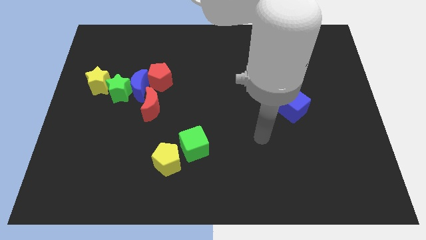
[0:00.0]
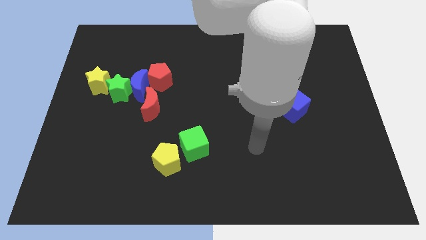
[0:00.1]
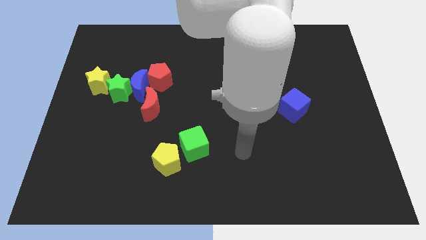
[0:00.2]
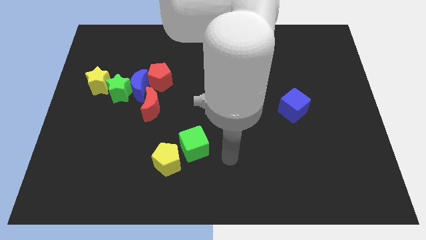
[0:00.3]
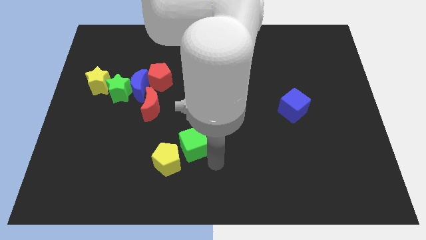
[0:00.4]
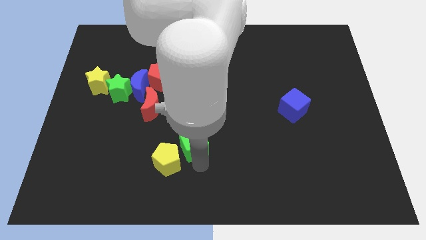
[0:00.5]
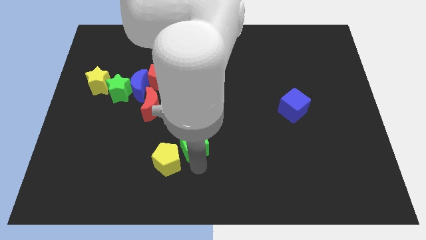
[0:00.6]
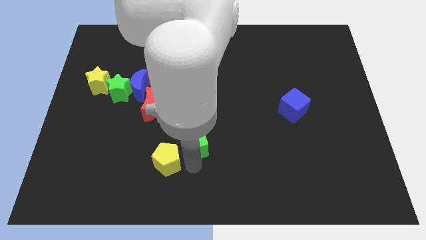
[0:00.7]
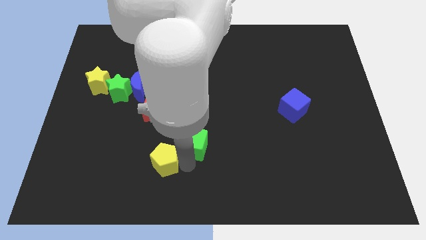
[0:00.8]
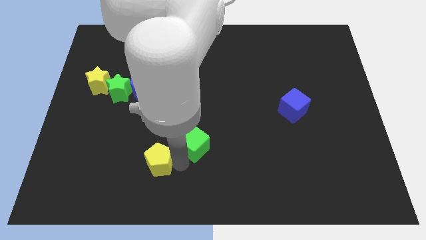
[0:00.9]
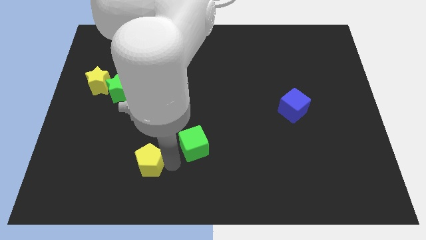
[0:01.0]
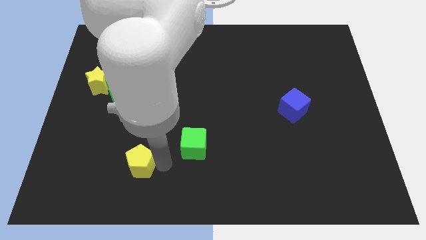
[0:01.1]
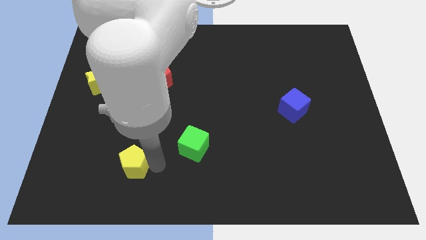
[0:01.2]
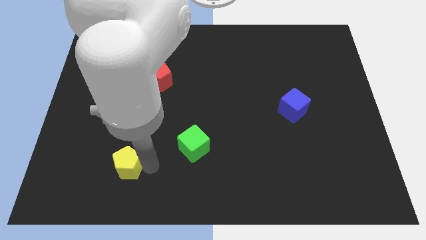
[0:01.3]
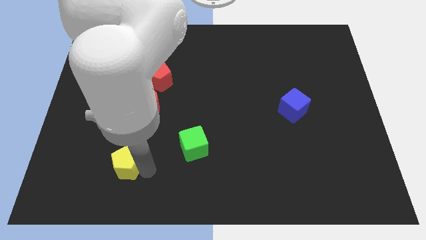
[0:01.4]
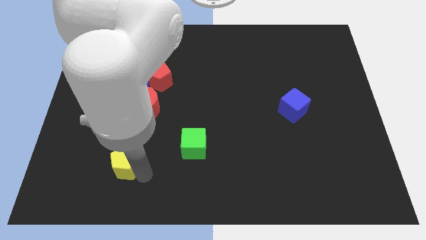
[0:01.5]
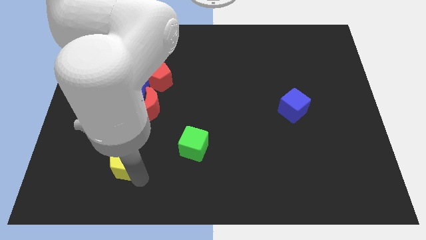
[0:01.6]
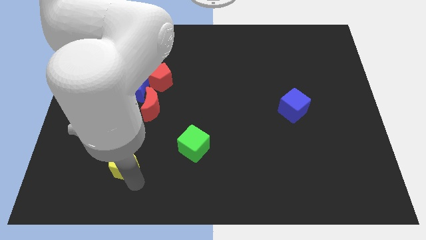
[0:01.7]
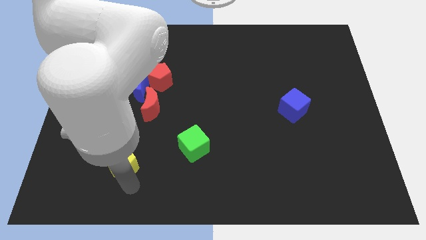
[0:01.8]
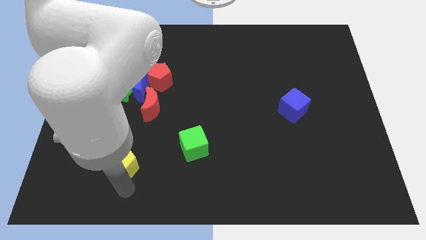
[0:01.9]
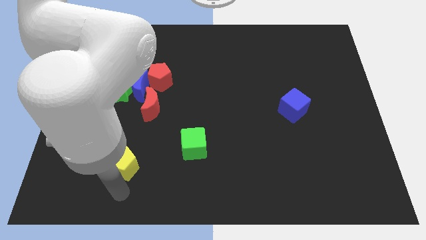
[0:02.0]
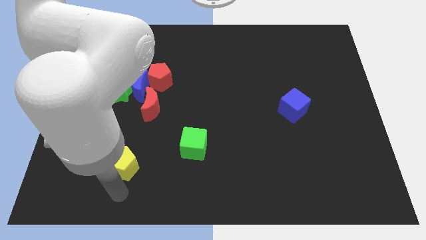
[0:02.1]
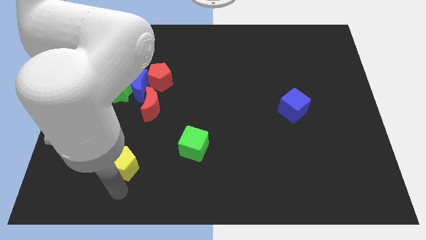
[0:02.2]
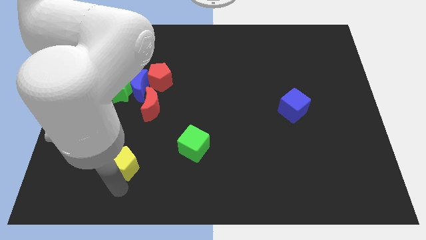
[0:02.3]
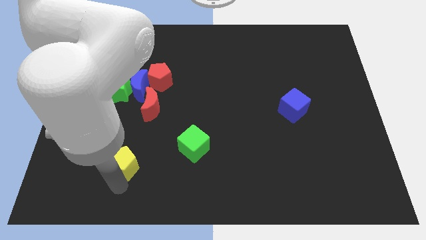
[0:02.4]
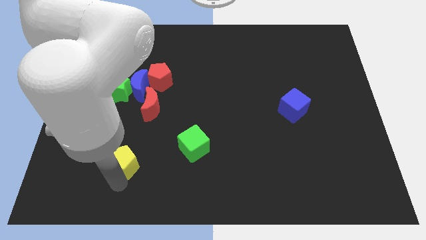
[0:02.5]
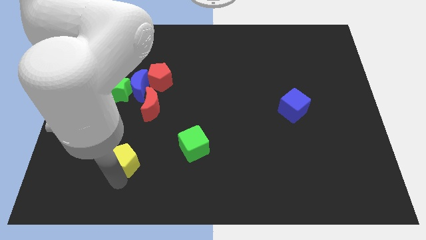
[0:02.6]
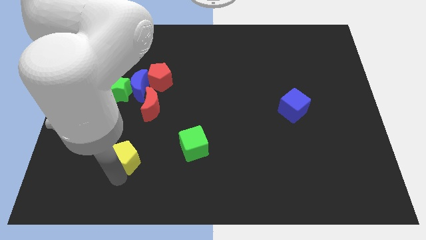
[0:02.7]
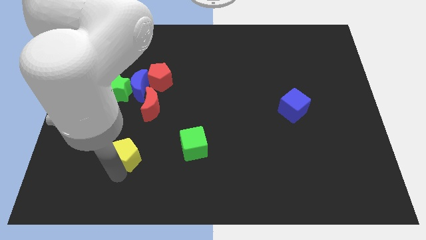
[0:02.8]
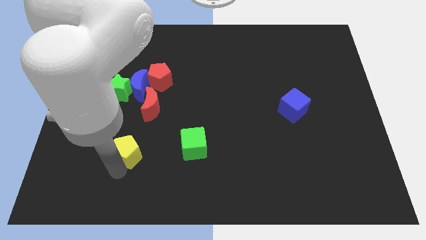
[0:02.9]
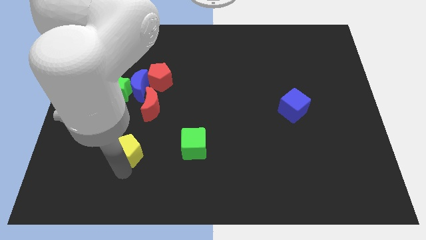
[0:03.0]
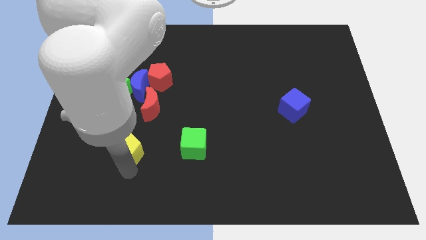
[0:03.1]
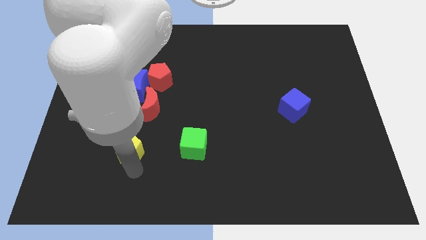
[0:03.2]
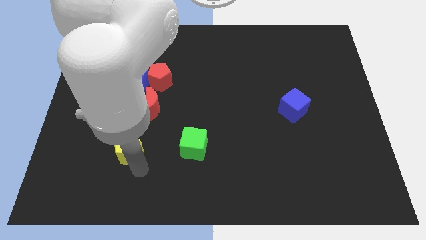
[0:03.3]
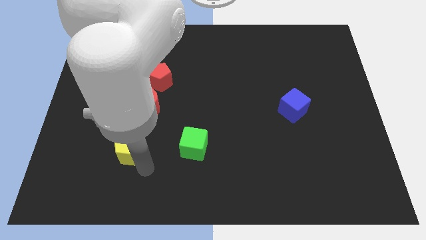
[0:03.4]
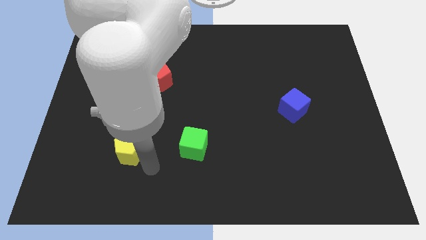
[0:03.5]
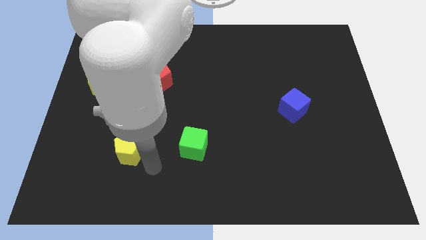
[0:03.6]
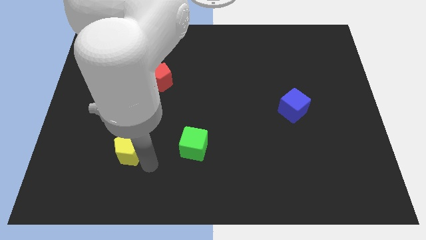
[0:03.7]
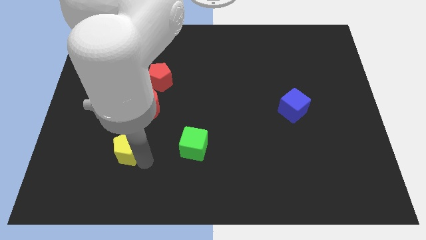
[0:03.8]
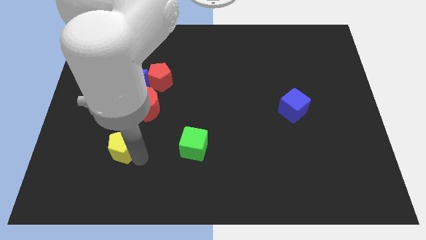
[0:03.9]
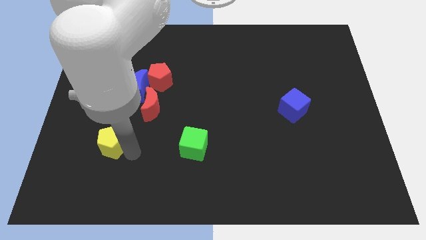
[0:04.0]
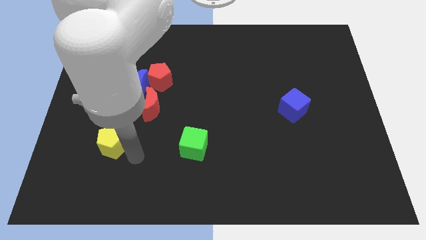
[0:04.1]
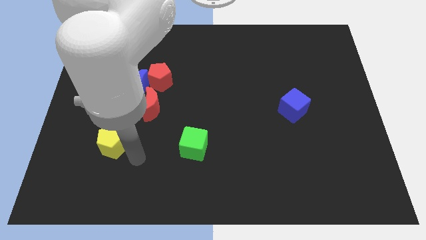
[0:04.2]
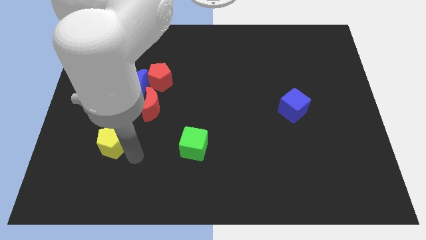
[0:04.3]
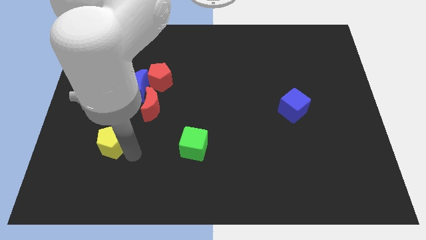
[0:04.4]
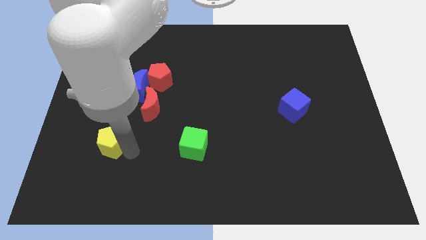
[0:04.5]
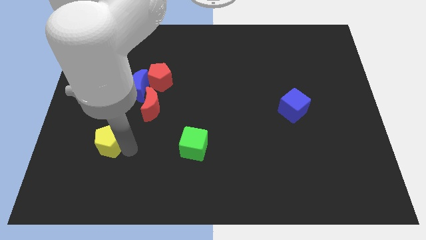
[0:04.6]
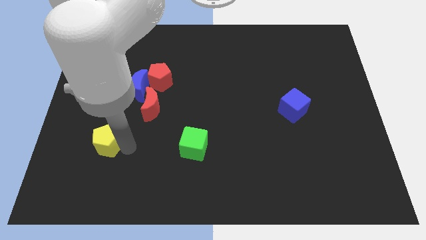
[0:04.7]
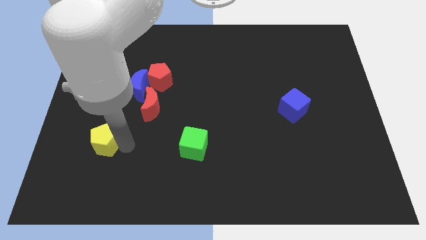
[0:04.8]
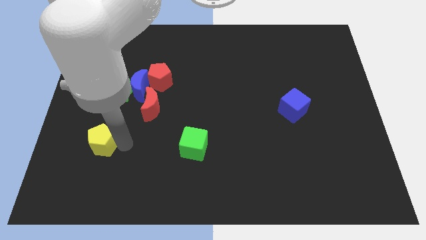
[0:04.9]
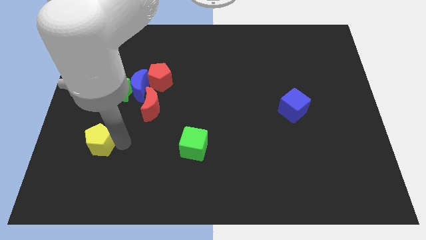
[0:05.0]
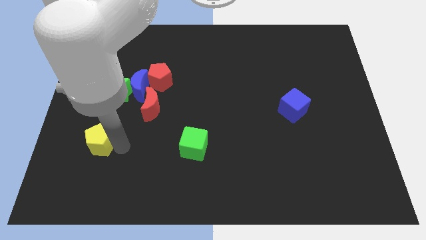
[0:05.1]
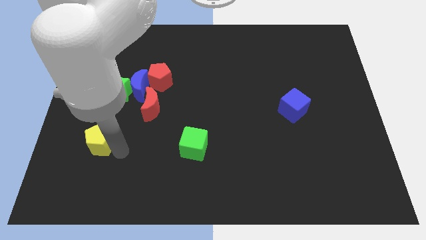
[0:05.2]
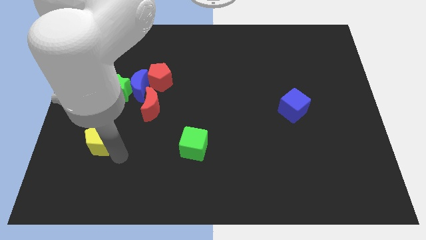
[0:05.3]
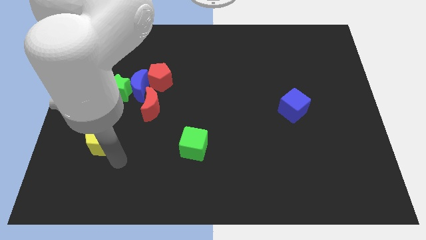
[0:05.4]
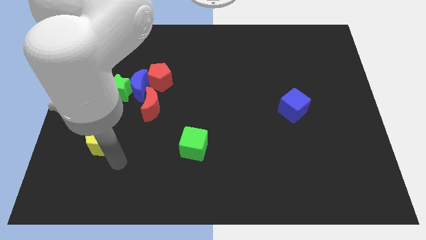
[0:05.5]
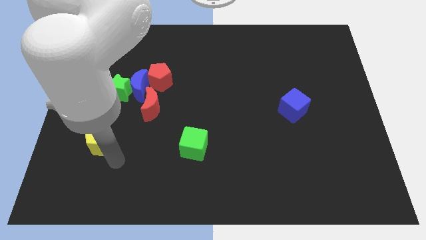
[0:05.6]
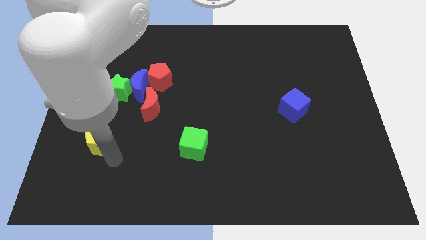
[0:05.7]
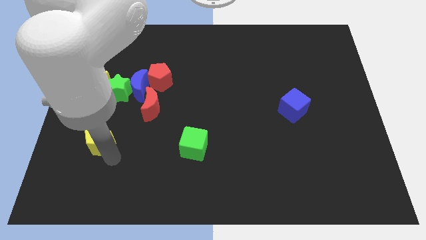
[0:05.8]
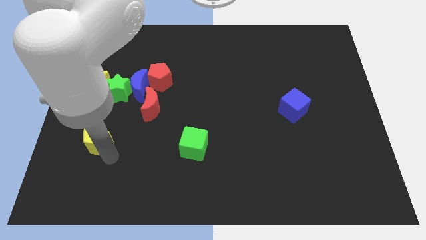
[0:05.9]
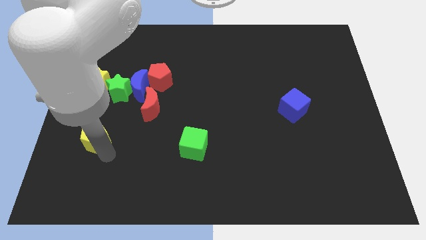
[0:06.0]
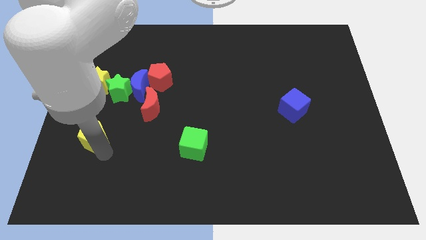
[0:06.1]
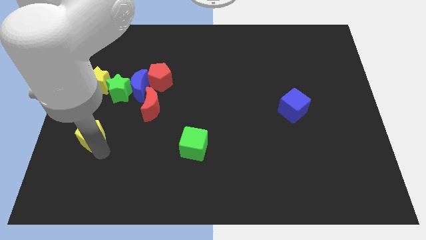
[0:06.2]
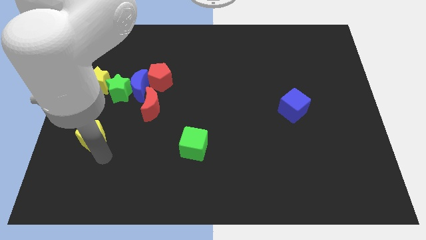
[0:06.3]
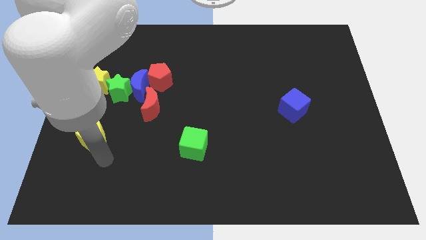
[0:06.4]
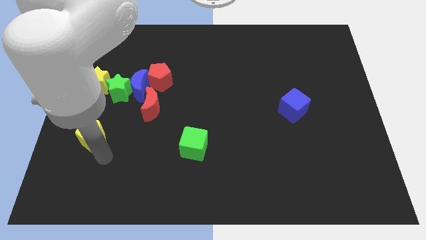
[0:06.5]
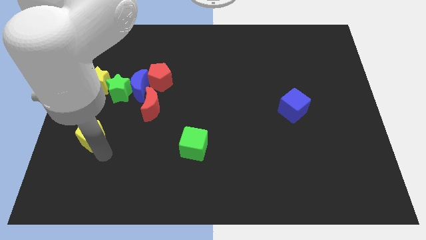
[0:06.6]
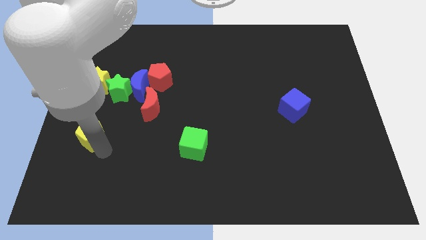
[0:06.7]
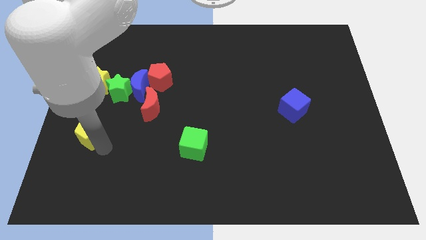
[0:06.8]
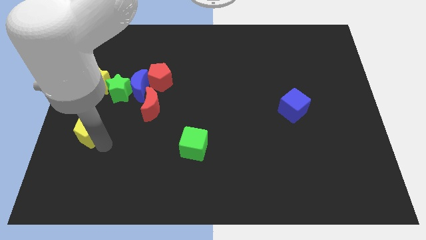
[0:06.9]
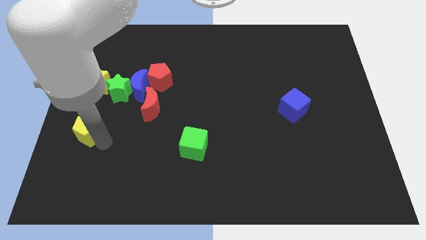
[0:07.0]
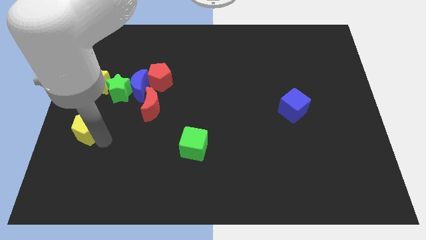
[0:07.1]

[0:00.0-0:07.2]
move the yellow pentagon to the left side
